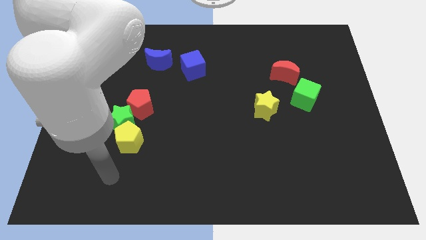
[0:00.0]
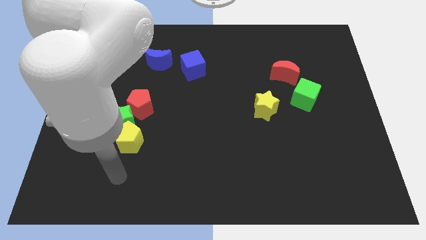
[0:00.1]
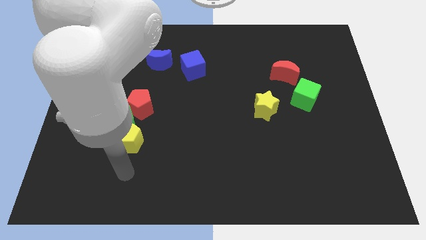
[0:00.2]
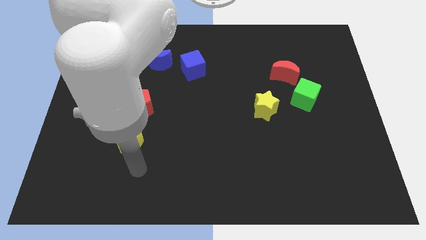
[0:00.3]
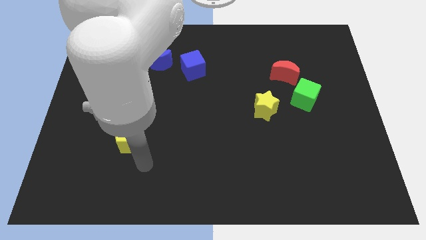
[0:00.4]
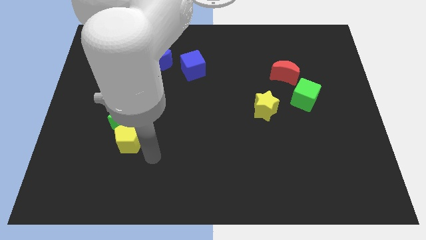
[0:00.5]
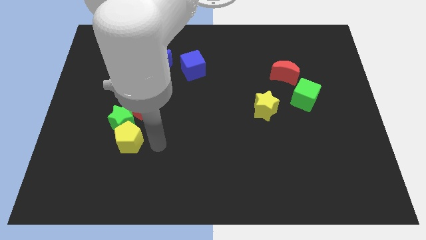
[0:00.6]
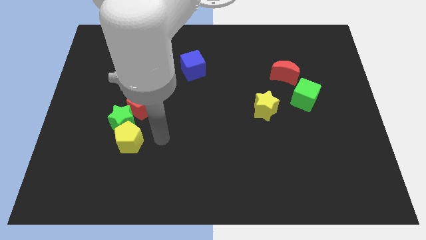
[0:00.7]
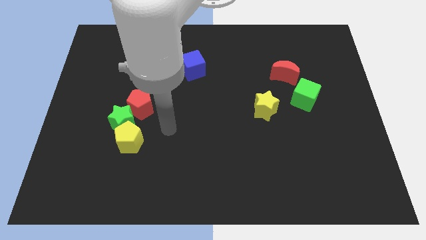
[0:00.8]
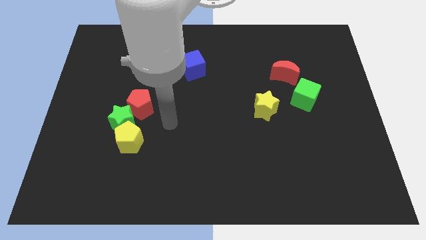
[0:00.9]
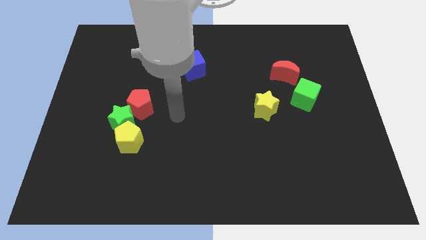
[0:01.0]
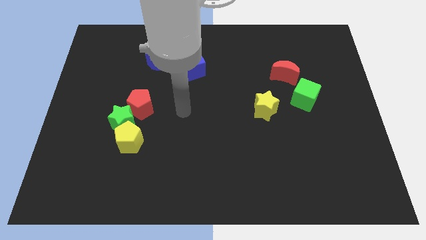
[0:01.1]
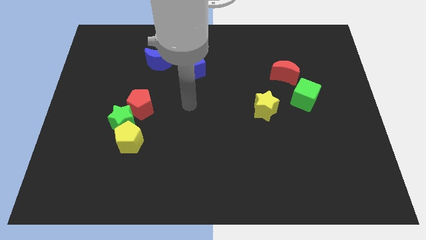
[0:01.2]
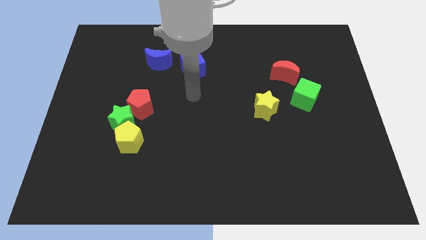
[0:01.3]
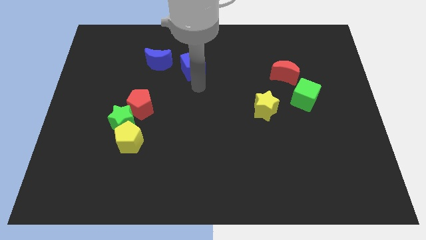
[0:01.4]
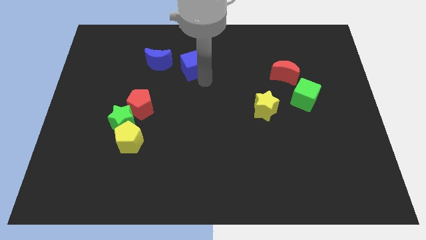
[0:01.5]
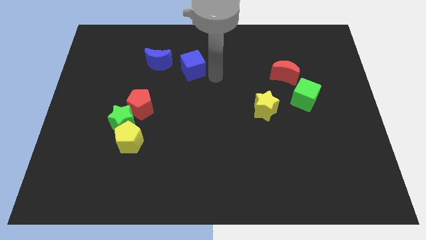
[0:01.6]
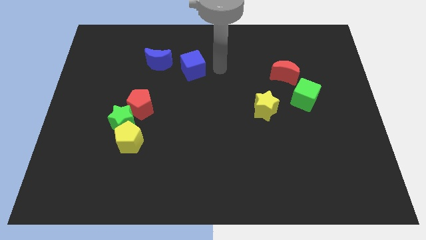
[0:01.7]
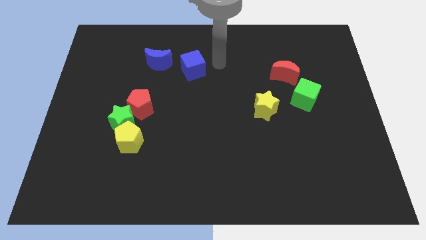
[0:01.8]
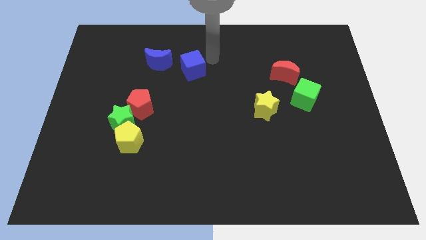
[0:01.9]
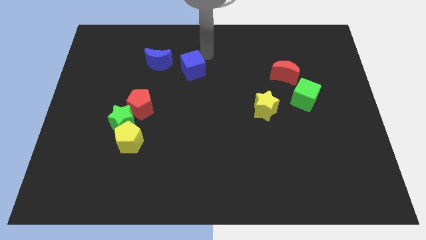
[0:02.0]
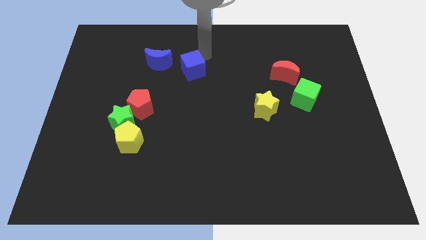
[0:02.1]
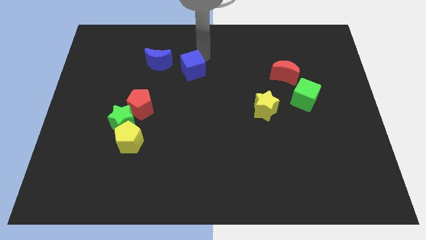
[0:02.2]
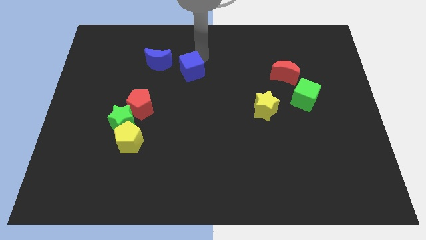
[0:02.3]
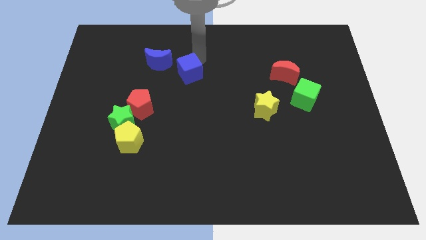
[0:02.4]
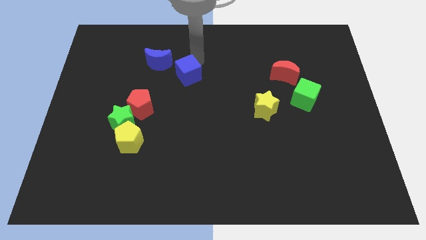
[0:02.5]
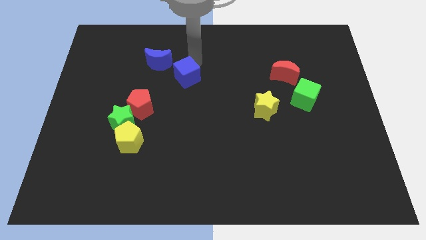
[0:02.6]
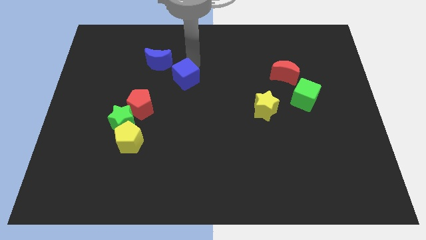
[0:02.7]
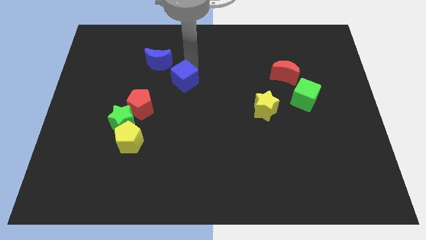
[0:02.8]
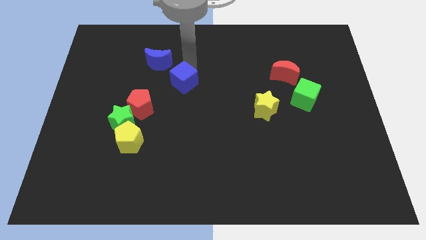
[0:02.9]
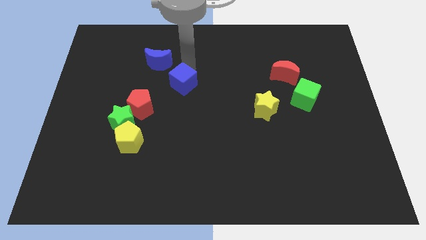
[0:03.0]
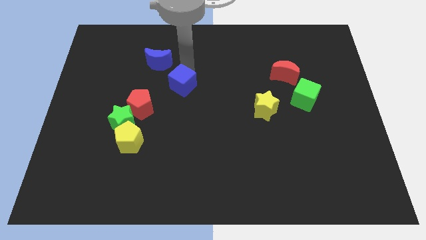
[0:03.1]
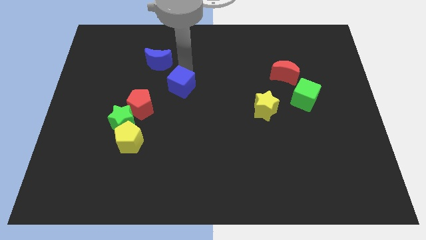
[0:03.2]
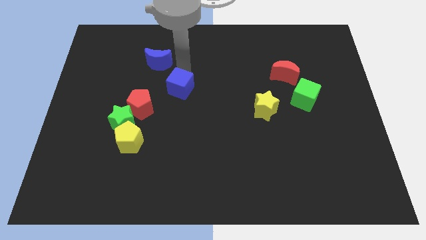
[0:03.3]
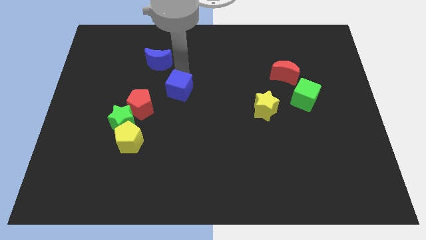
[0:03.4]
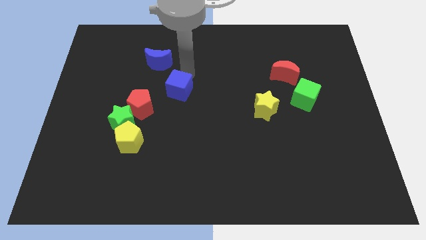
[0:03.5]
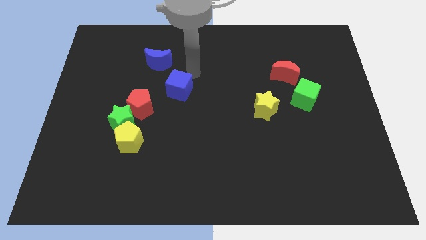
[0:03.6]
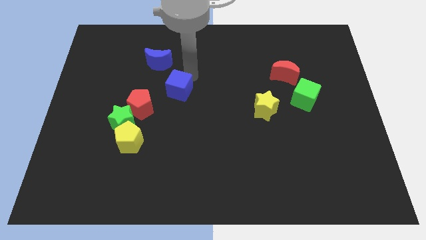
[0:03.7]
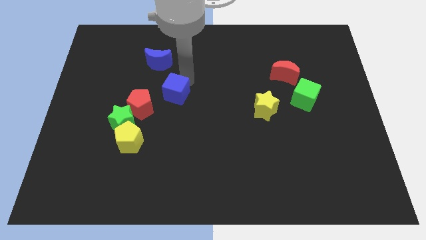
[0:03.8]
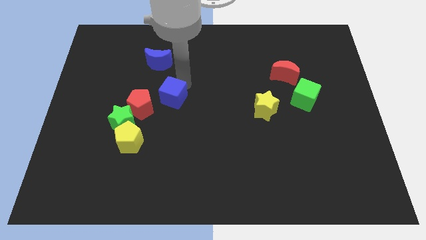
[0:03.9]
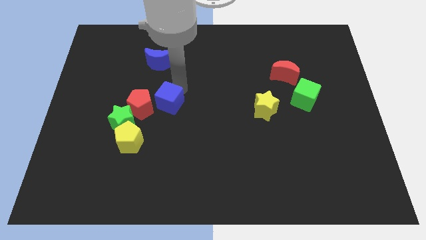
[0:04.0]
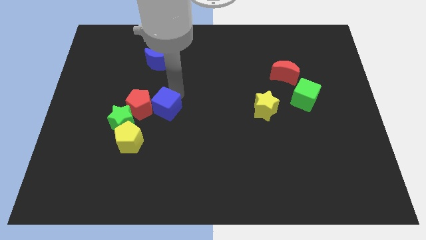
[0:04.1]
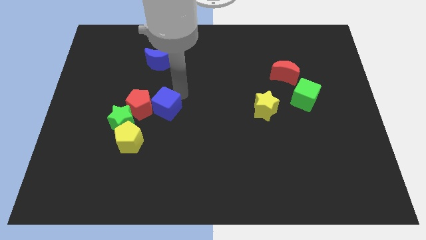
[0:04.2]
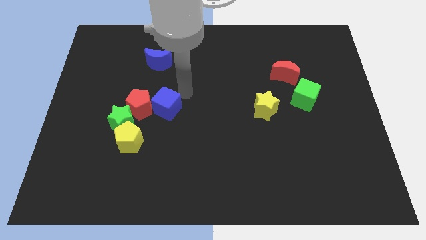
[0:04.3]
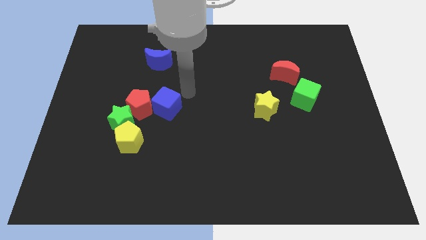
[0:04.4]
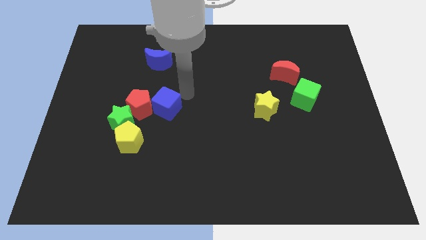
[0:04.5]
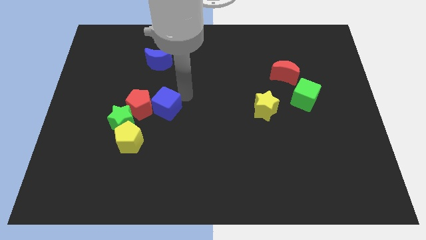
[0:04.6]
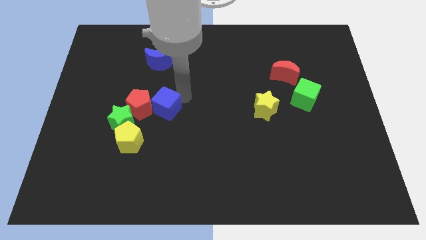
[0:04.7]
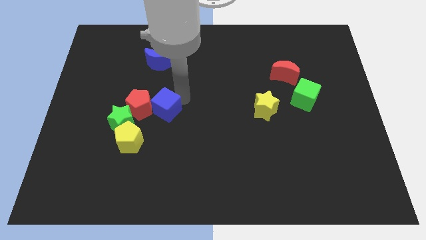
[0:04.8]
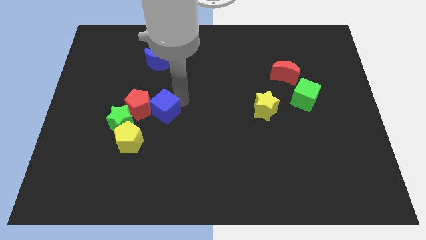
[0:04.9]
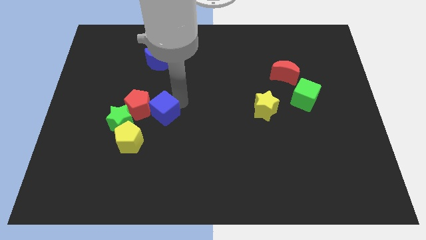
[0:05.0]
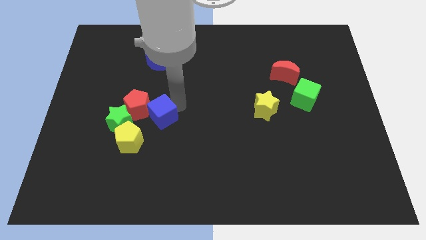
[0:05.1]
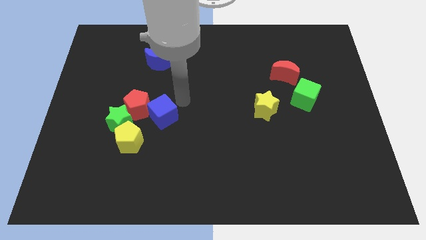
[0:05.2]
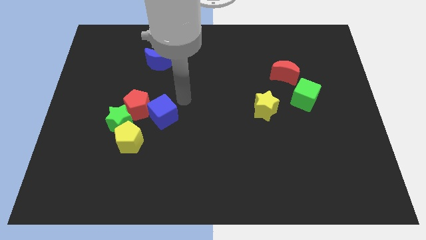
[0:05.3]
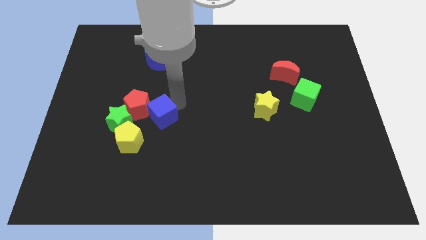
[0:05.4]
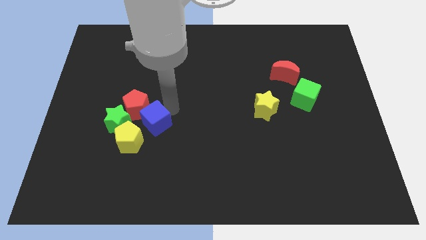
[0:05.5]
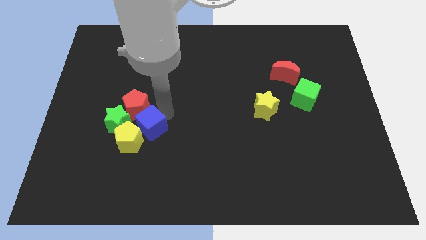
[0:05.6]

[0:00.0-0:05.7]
slide the blue cube towards the yellow pentagon

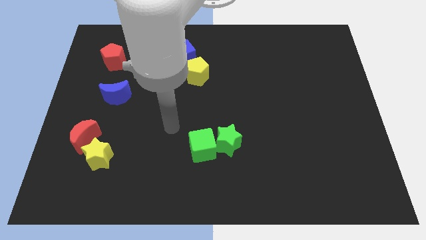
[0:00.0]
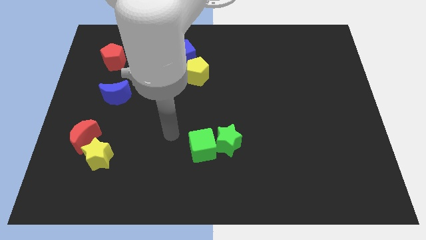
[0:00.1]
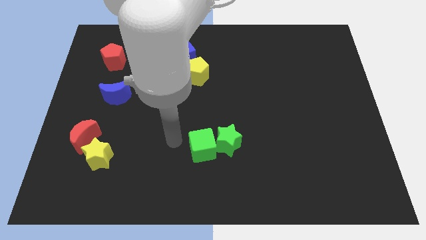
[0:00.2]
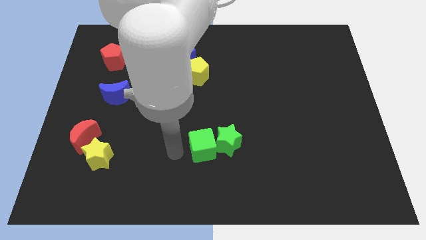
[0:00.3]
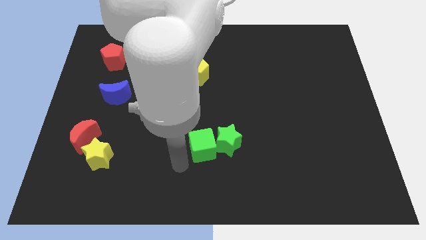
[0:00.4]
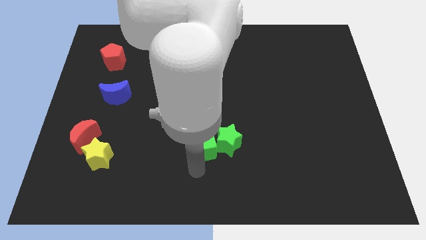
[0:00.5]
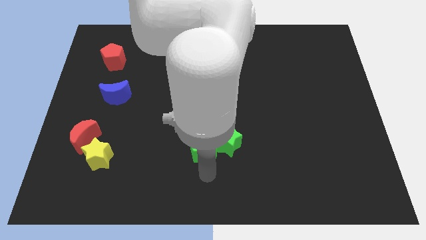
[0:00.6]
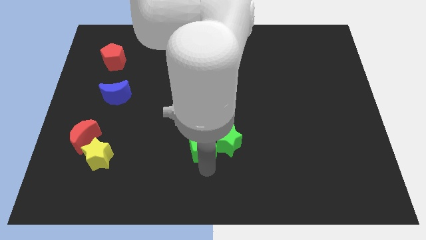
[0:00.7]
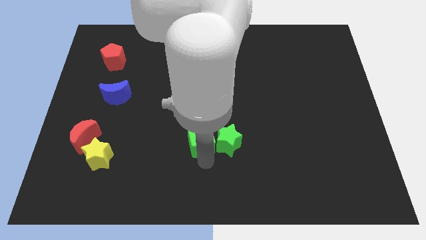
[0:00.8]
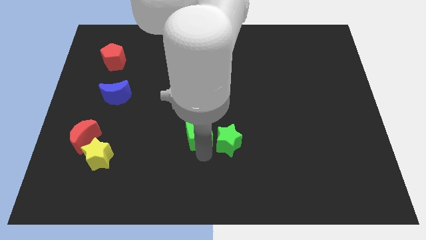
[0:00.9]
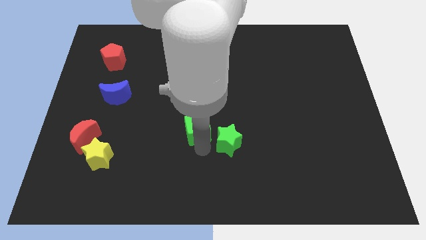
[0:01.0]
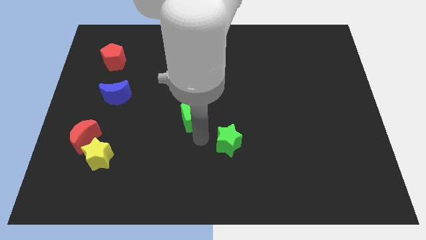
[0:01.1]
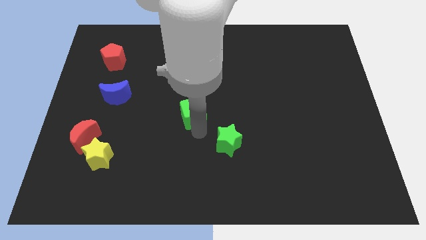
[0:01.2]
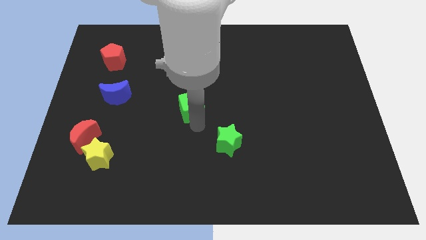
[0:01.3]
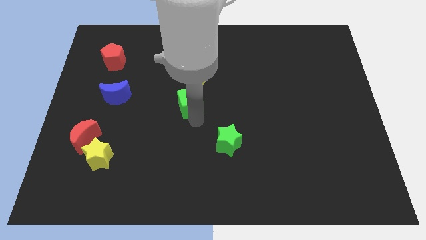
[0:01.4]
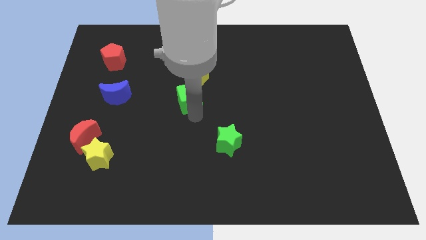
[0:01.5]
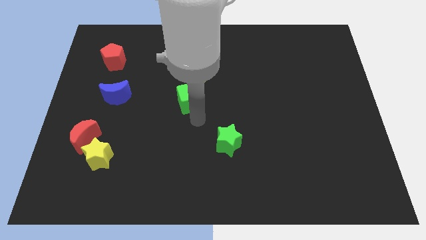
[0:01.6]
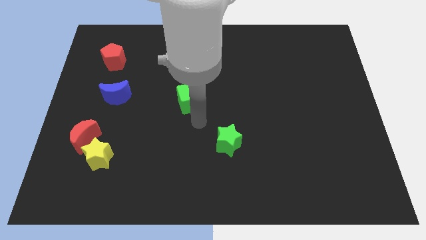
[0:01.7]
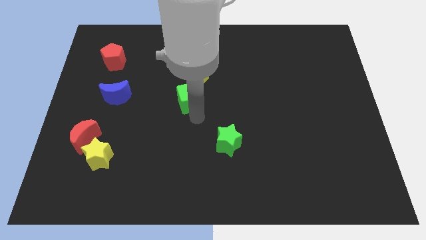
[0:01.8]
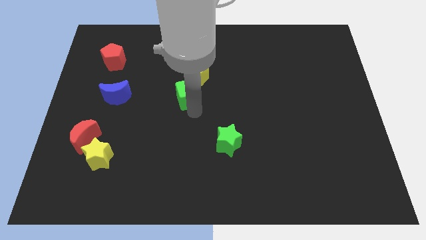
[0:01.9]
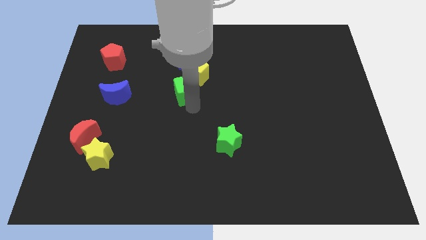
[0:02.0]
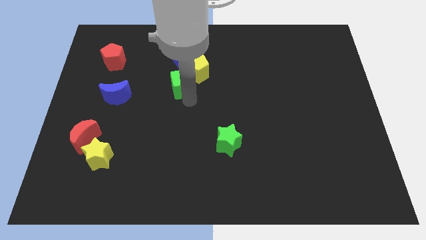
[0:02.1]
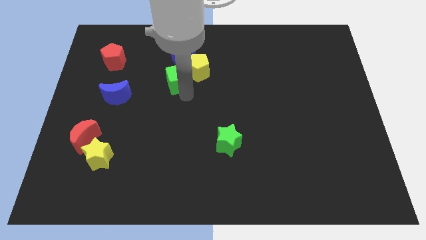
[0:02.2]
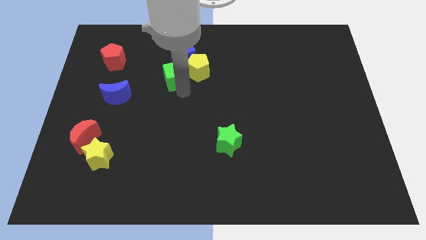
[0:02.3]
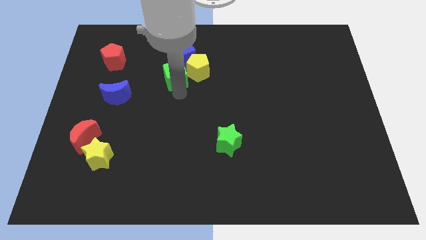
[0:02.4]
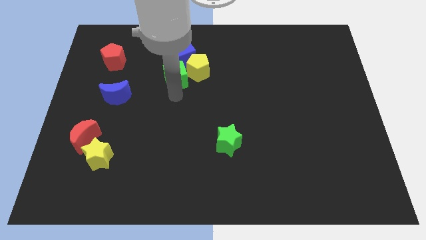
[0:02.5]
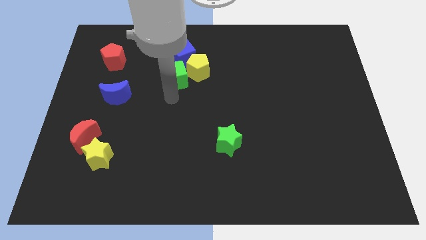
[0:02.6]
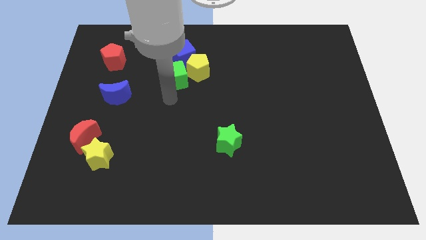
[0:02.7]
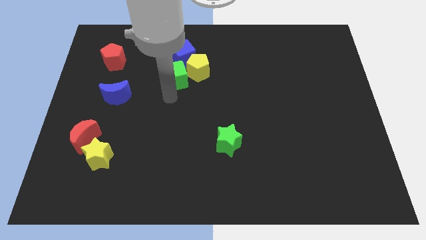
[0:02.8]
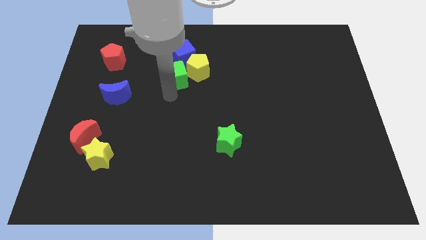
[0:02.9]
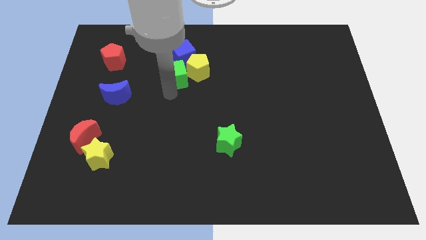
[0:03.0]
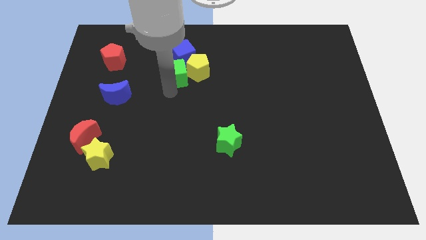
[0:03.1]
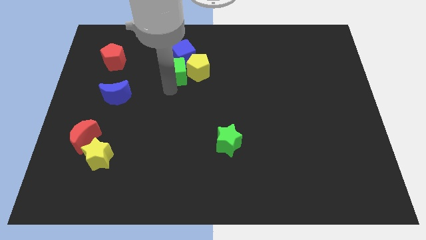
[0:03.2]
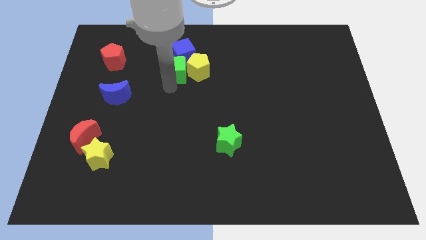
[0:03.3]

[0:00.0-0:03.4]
put the green cube towards the blue cube
